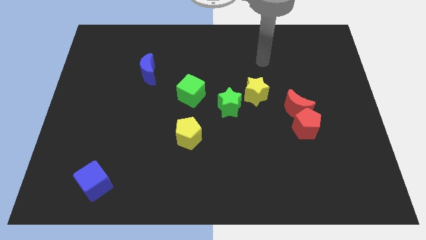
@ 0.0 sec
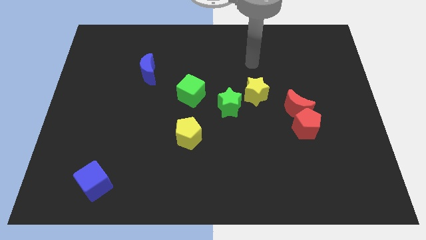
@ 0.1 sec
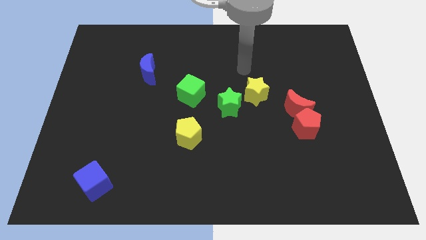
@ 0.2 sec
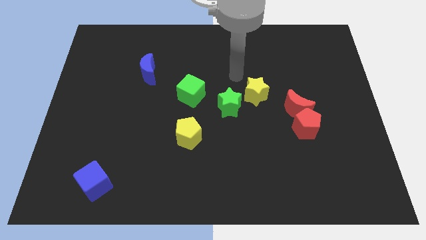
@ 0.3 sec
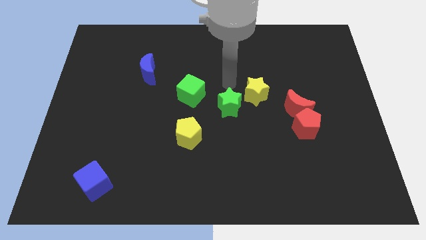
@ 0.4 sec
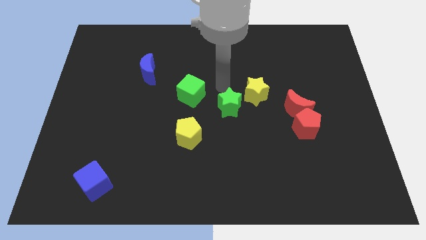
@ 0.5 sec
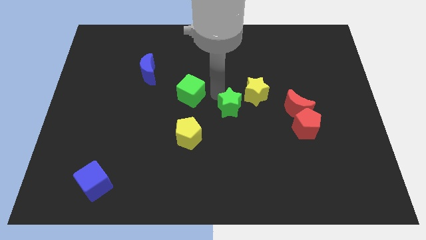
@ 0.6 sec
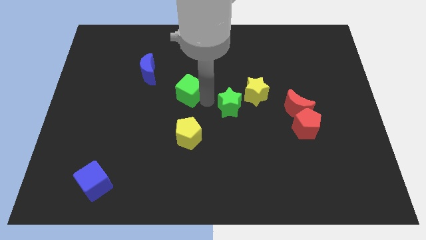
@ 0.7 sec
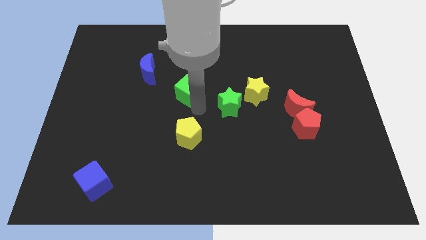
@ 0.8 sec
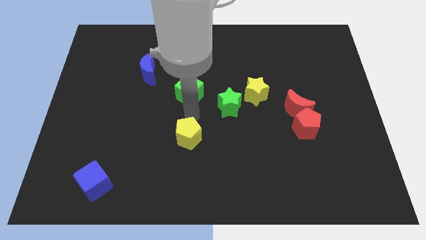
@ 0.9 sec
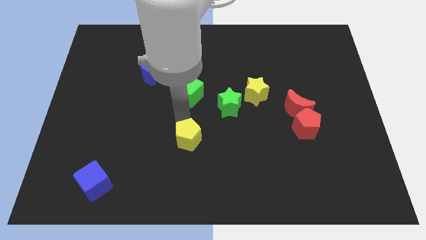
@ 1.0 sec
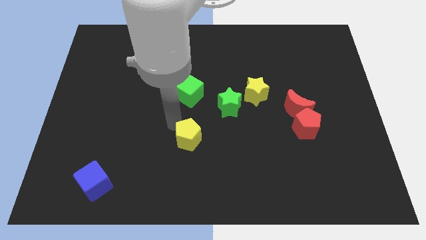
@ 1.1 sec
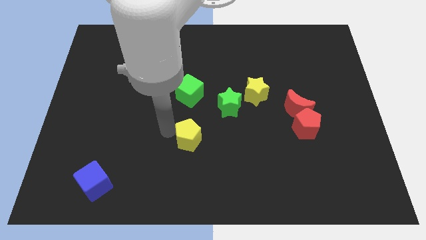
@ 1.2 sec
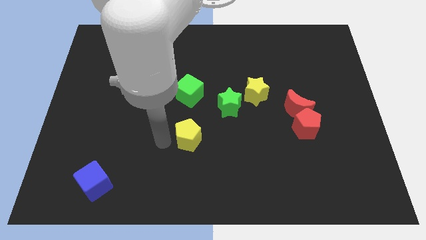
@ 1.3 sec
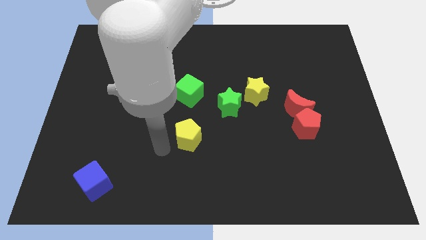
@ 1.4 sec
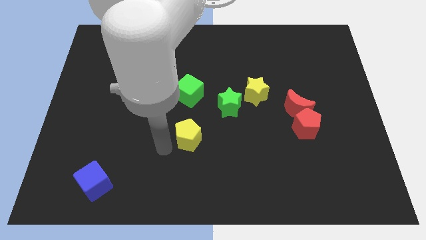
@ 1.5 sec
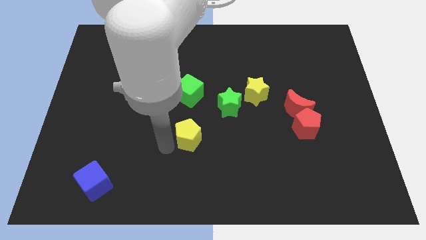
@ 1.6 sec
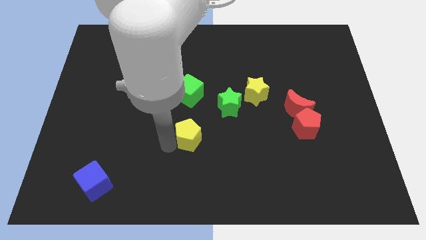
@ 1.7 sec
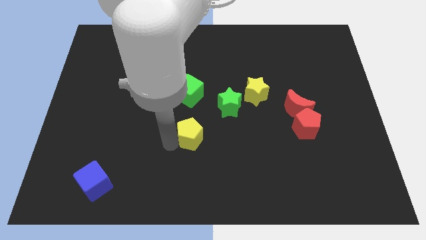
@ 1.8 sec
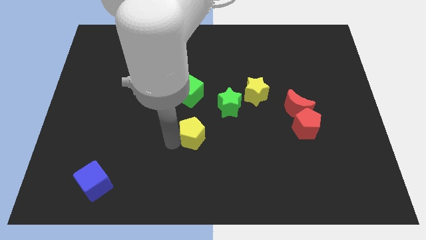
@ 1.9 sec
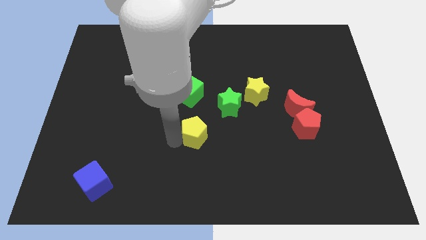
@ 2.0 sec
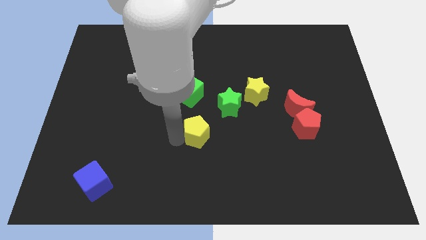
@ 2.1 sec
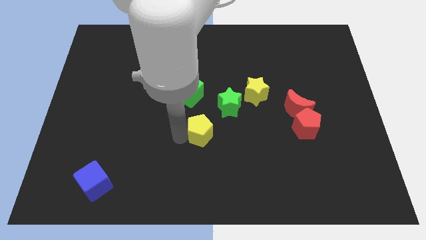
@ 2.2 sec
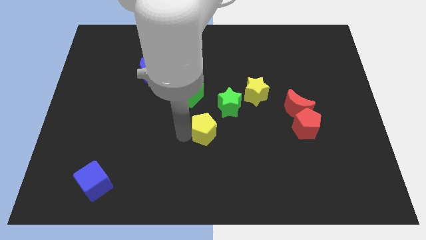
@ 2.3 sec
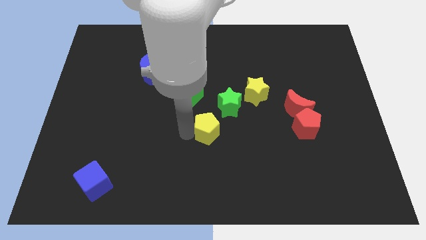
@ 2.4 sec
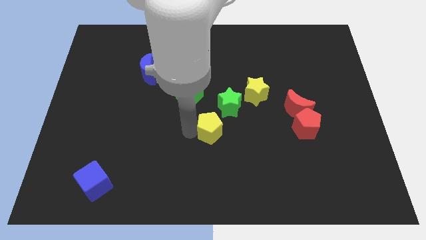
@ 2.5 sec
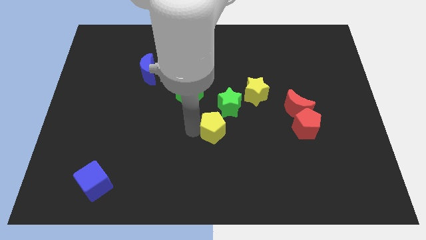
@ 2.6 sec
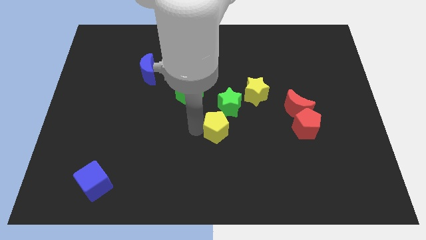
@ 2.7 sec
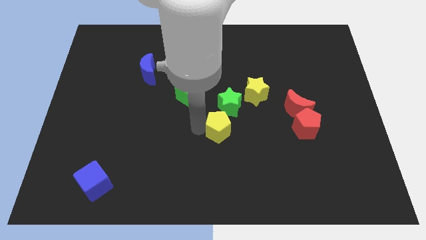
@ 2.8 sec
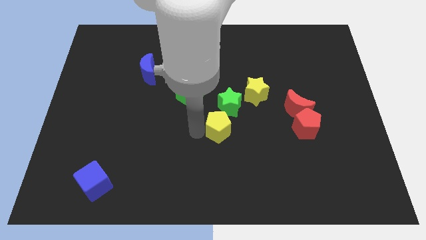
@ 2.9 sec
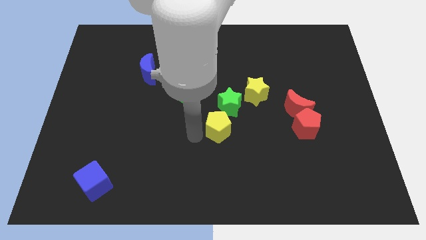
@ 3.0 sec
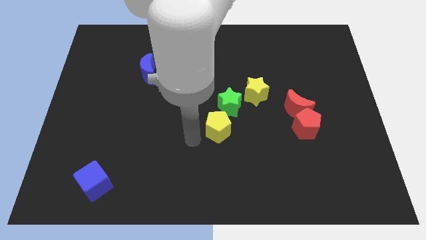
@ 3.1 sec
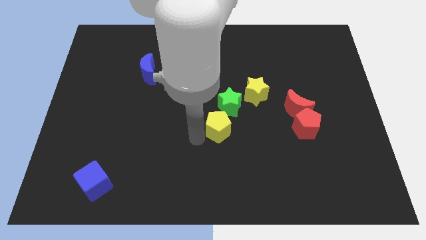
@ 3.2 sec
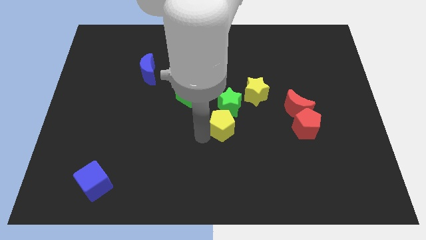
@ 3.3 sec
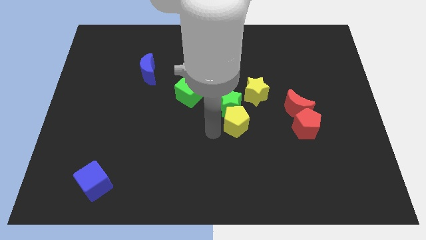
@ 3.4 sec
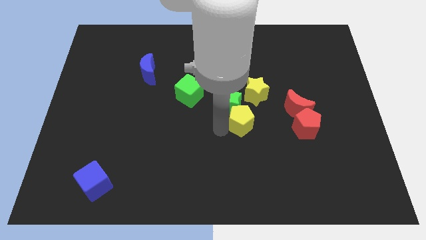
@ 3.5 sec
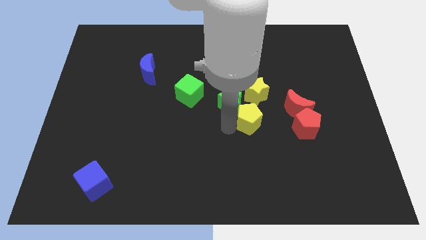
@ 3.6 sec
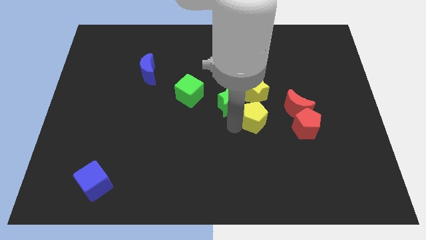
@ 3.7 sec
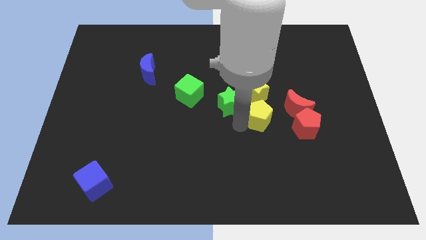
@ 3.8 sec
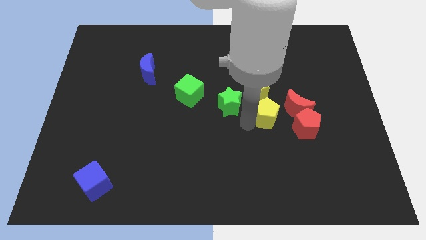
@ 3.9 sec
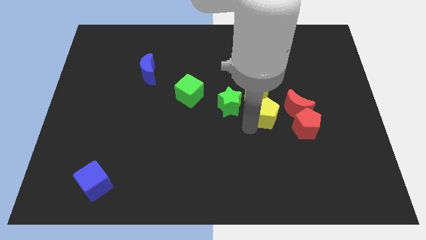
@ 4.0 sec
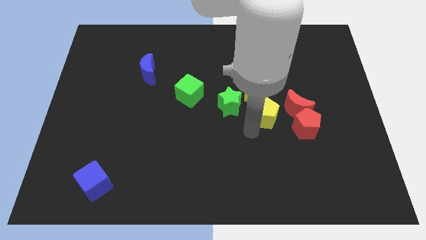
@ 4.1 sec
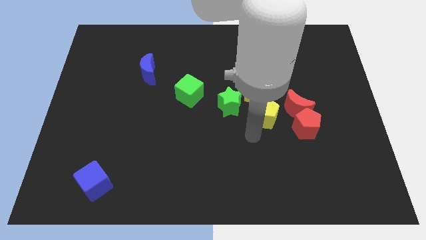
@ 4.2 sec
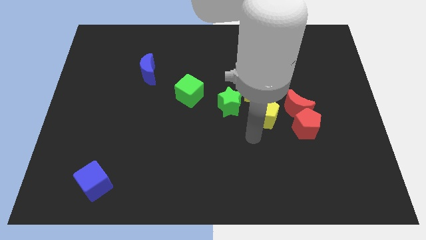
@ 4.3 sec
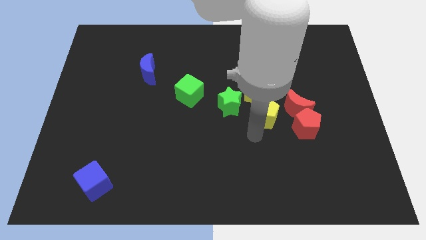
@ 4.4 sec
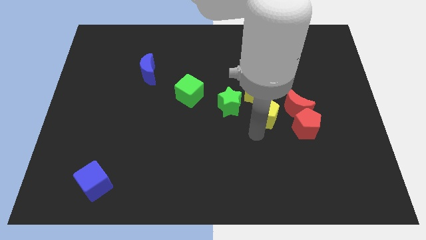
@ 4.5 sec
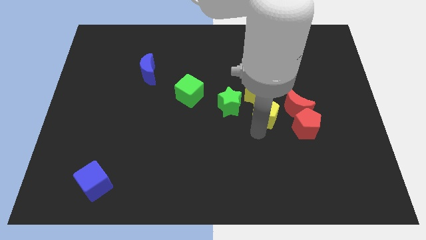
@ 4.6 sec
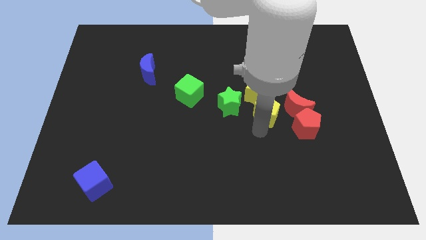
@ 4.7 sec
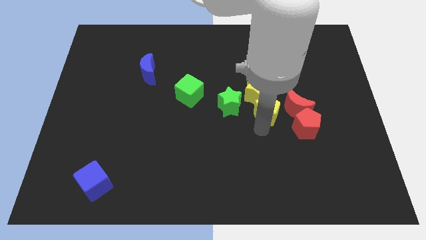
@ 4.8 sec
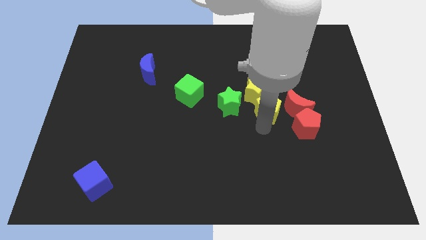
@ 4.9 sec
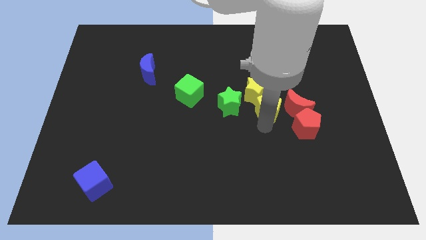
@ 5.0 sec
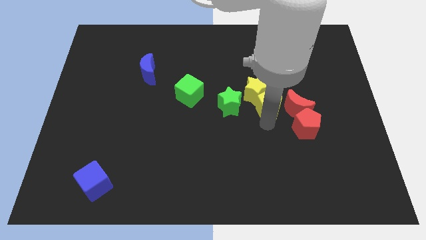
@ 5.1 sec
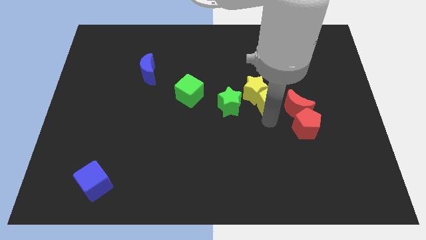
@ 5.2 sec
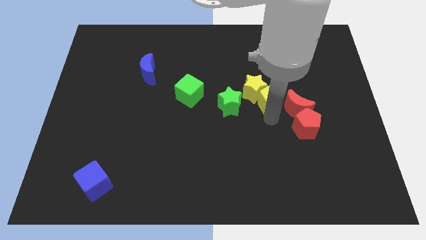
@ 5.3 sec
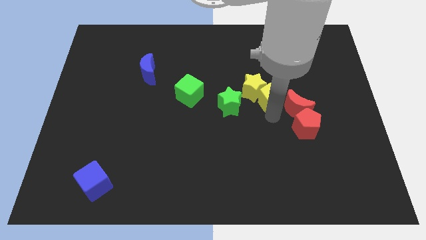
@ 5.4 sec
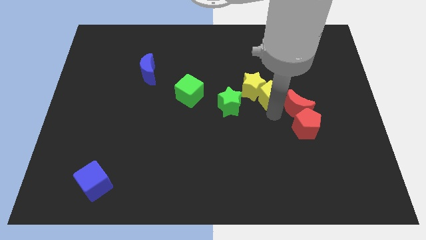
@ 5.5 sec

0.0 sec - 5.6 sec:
slide the yellow pentagon up and right diagonally

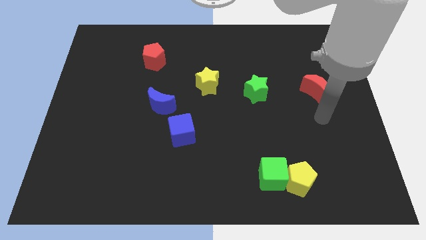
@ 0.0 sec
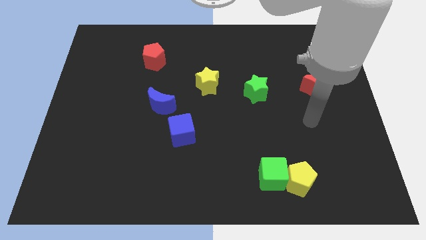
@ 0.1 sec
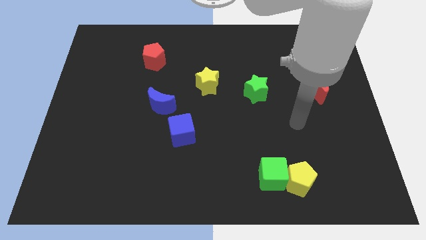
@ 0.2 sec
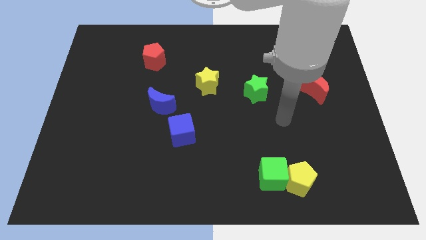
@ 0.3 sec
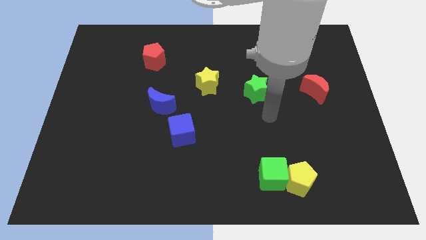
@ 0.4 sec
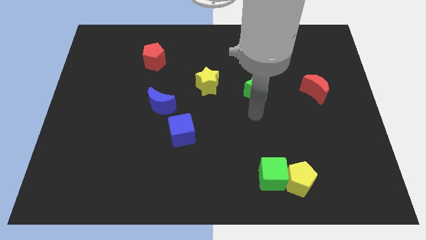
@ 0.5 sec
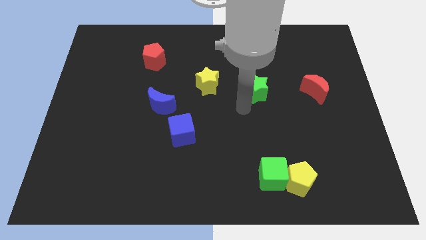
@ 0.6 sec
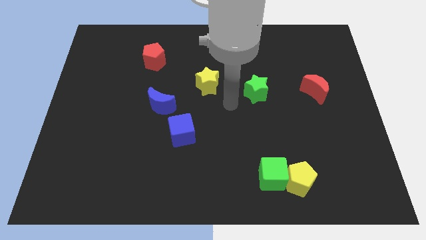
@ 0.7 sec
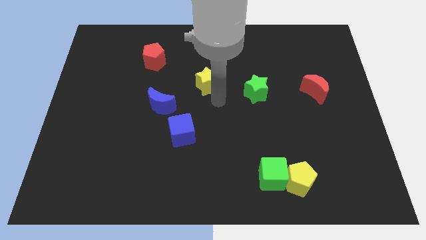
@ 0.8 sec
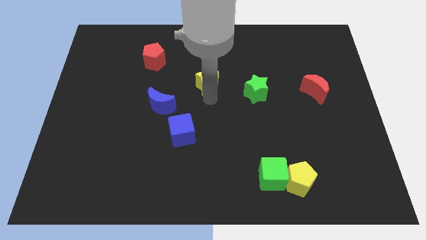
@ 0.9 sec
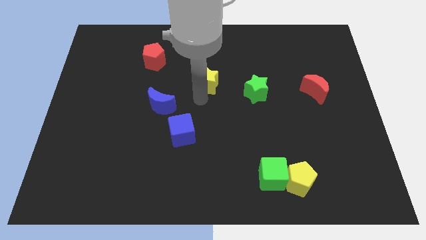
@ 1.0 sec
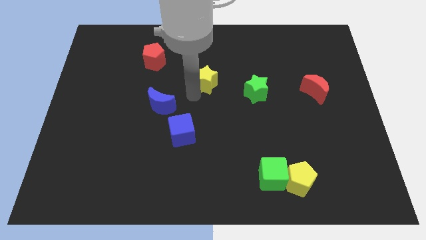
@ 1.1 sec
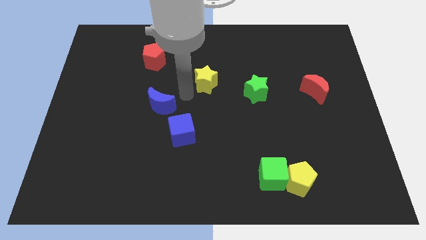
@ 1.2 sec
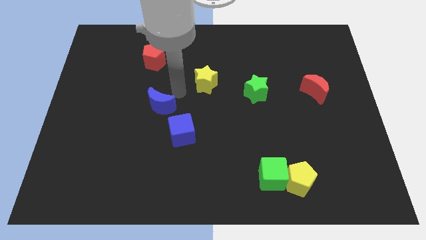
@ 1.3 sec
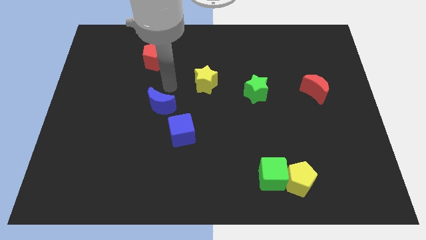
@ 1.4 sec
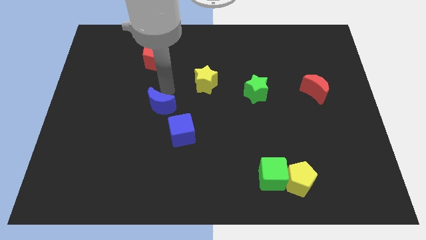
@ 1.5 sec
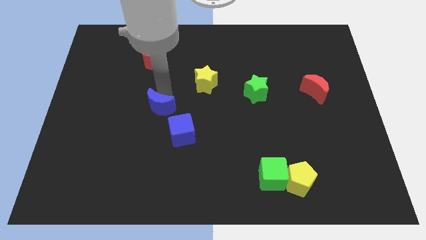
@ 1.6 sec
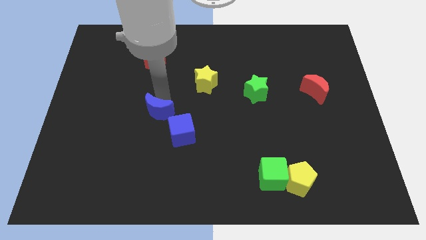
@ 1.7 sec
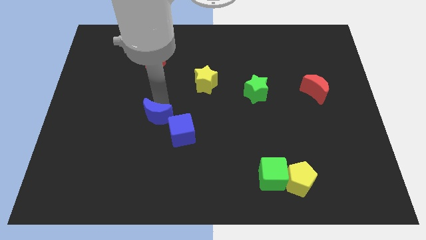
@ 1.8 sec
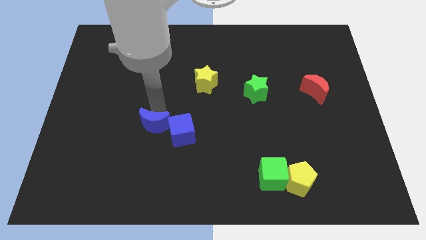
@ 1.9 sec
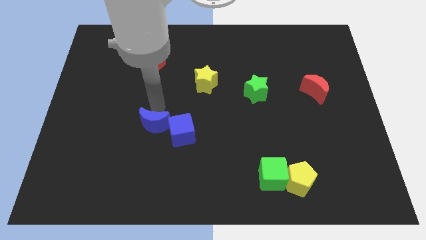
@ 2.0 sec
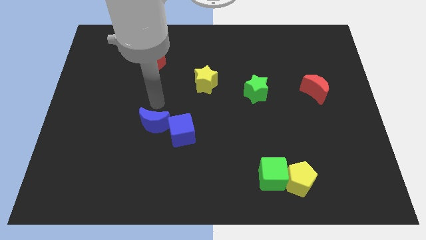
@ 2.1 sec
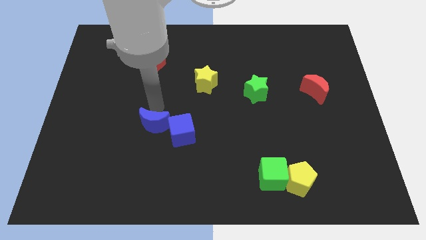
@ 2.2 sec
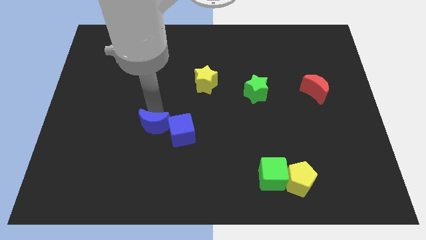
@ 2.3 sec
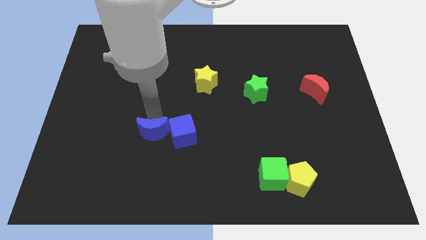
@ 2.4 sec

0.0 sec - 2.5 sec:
slide the blue moon down a little
